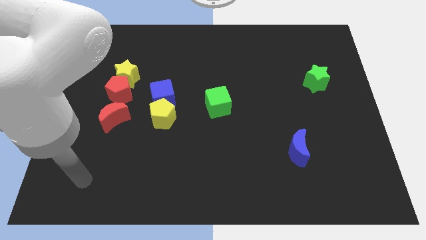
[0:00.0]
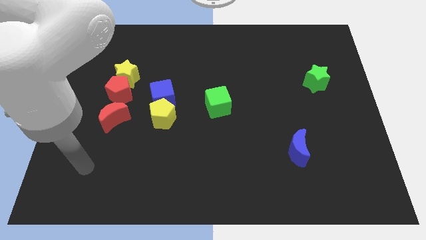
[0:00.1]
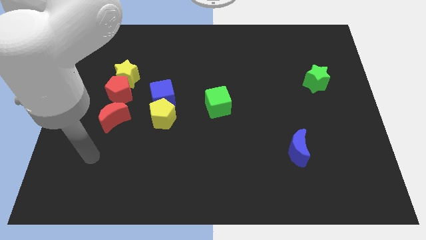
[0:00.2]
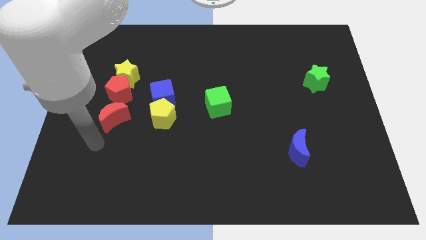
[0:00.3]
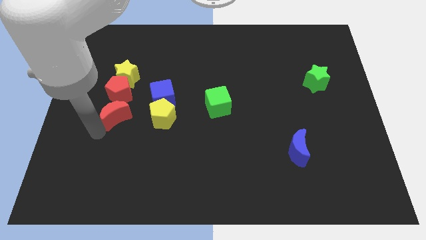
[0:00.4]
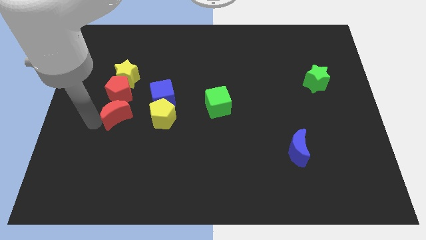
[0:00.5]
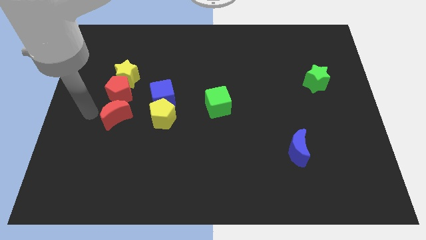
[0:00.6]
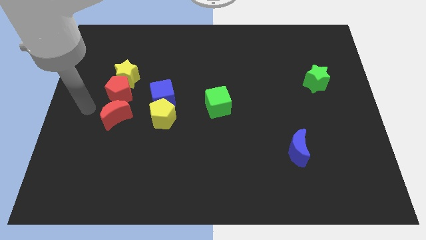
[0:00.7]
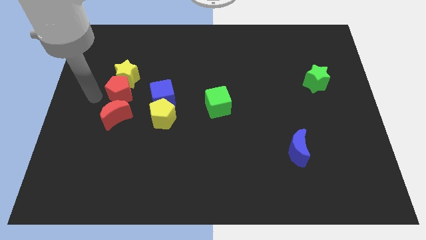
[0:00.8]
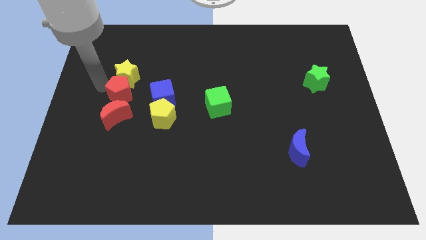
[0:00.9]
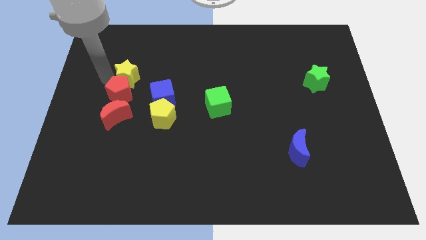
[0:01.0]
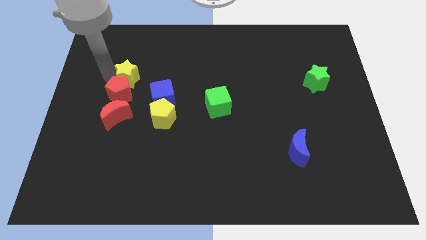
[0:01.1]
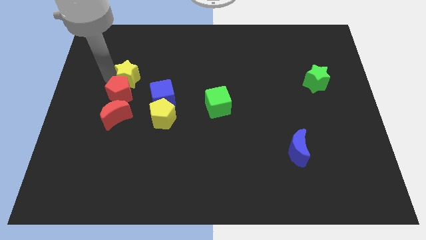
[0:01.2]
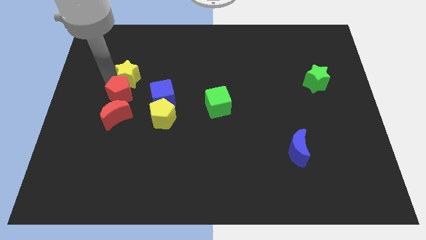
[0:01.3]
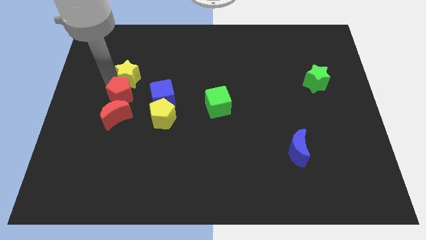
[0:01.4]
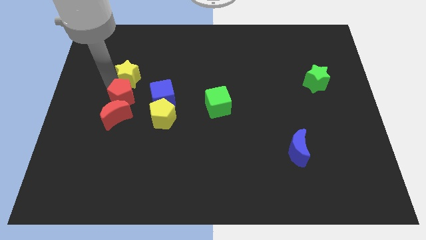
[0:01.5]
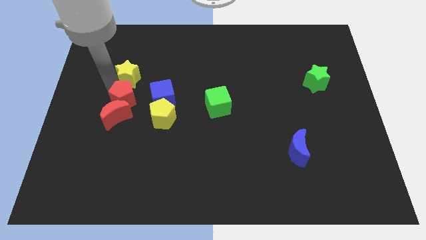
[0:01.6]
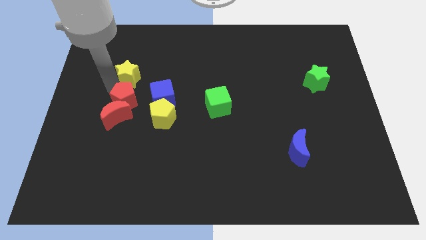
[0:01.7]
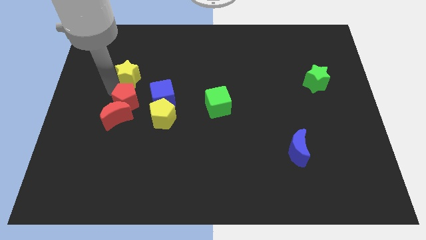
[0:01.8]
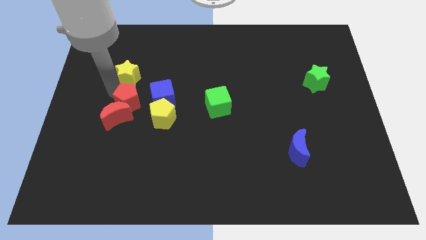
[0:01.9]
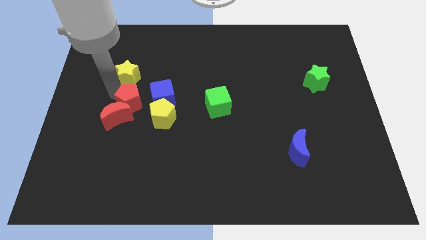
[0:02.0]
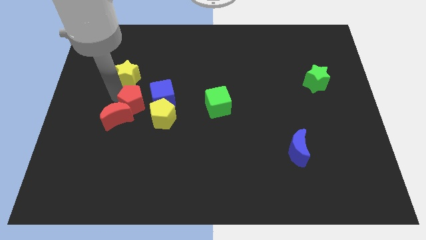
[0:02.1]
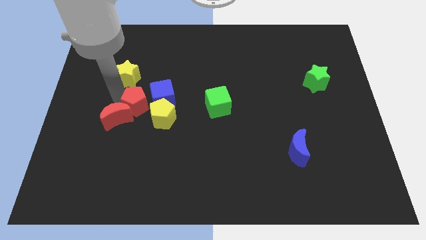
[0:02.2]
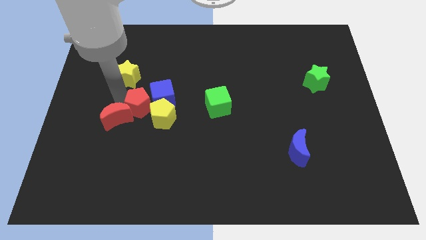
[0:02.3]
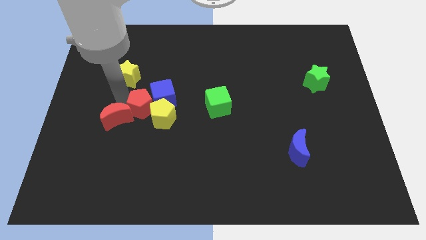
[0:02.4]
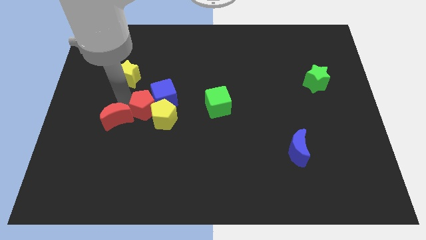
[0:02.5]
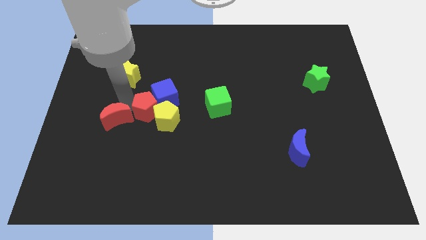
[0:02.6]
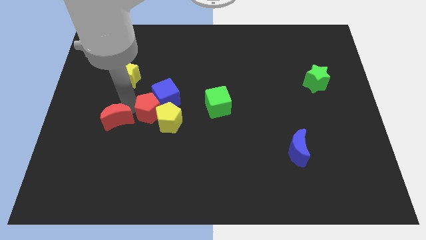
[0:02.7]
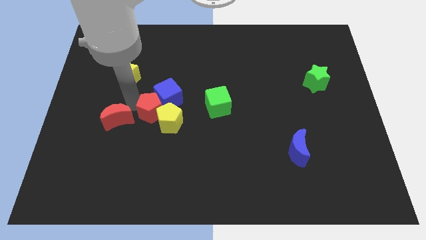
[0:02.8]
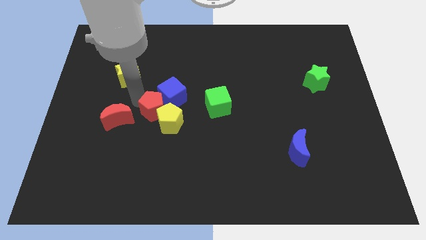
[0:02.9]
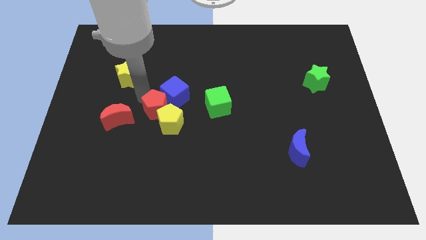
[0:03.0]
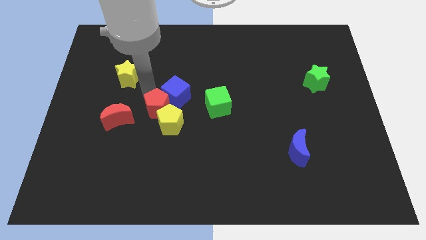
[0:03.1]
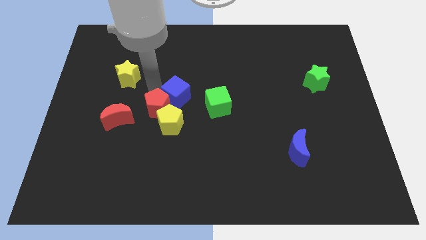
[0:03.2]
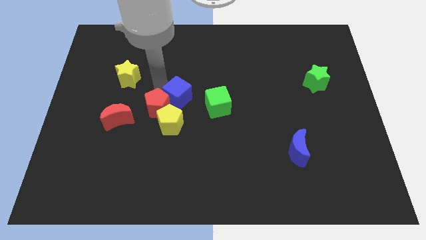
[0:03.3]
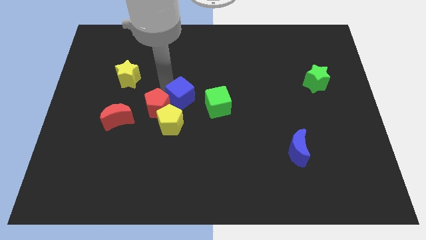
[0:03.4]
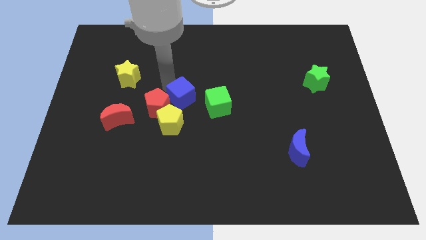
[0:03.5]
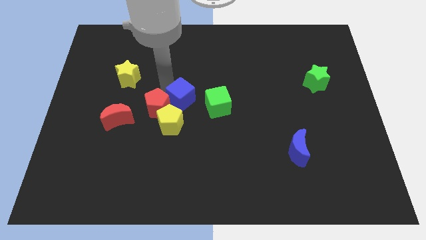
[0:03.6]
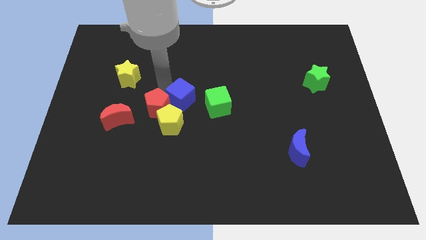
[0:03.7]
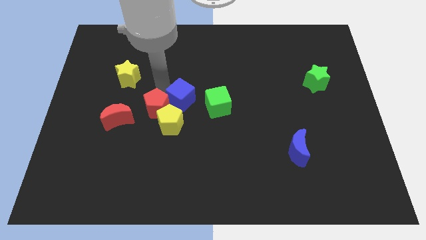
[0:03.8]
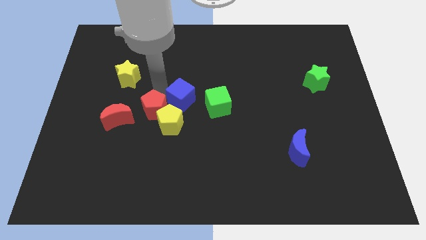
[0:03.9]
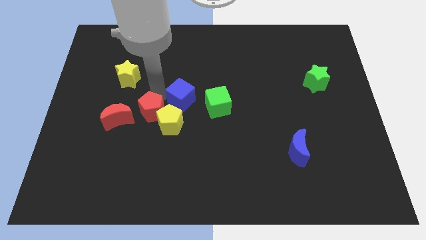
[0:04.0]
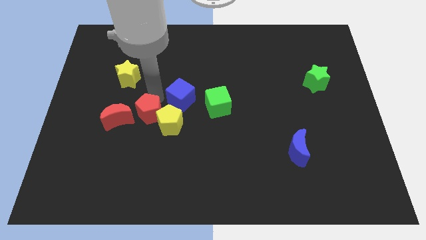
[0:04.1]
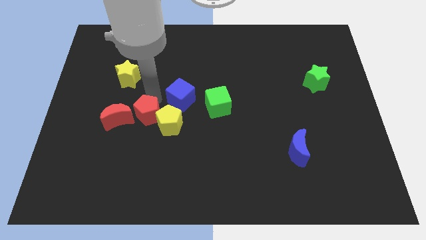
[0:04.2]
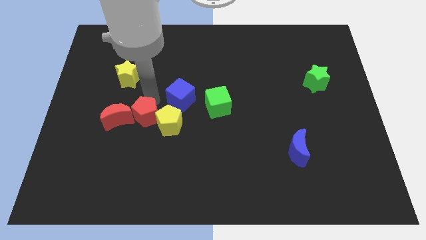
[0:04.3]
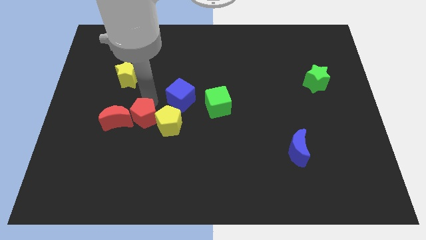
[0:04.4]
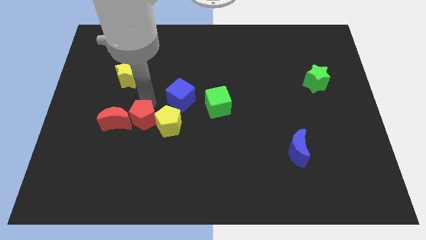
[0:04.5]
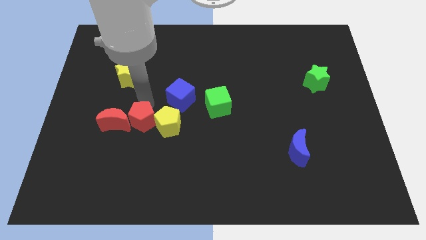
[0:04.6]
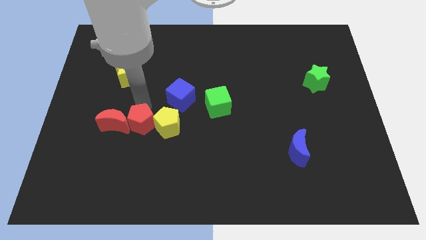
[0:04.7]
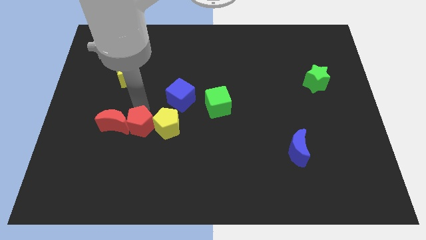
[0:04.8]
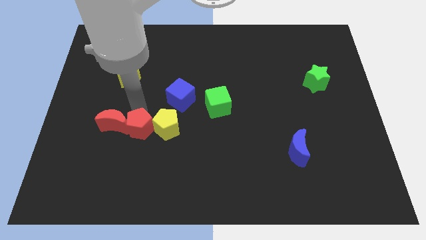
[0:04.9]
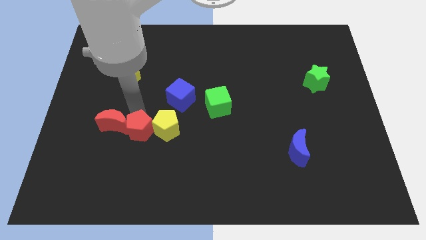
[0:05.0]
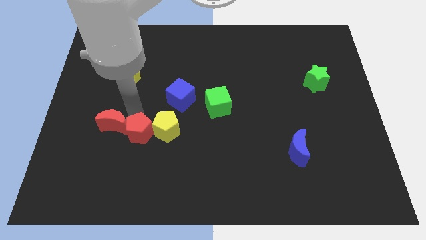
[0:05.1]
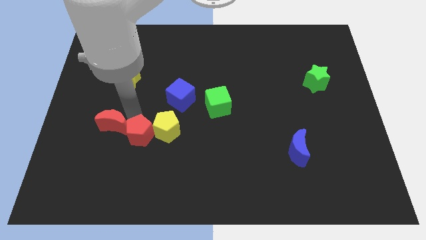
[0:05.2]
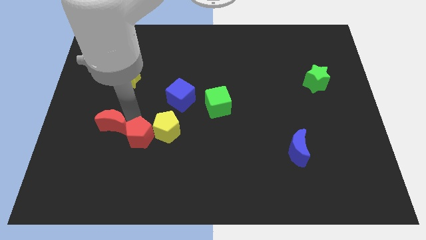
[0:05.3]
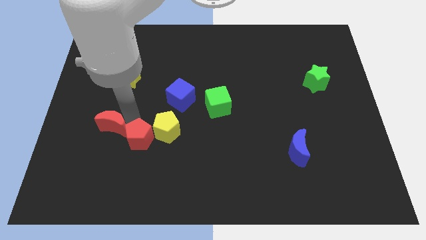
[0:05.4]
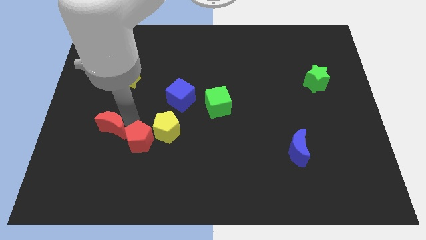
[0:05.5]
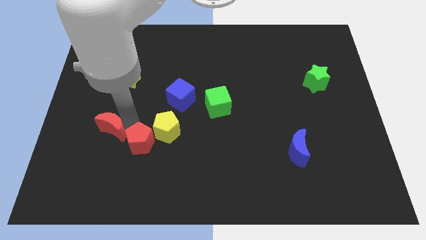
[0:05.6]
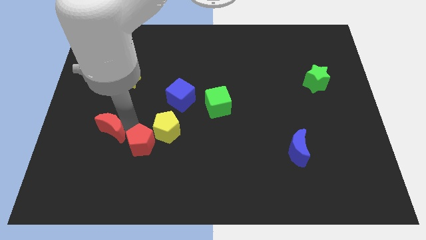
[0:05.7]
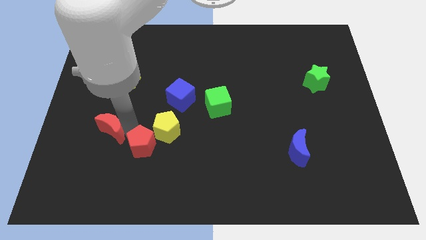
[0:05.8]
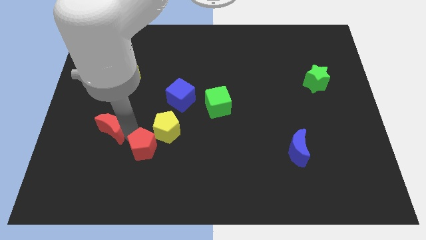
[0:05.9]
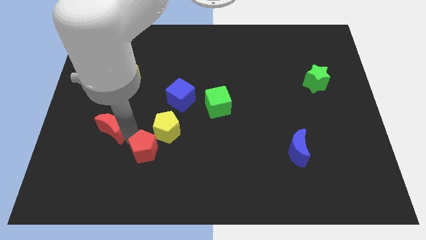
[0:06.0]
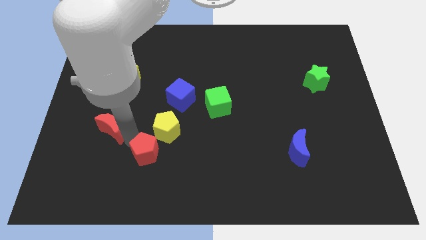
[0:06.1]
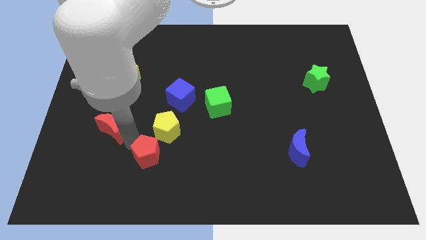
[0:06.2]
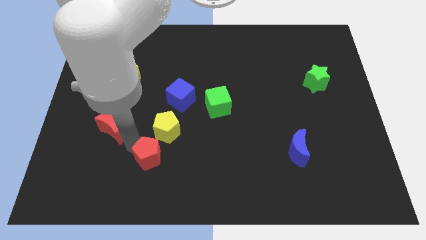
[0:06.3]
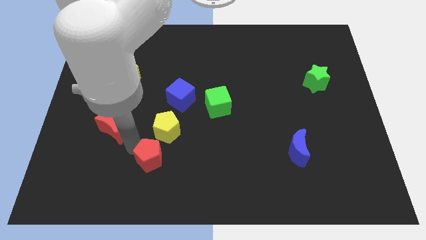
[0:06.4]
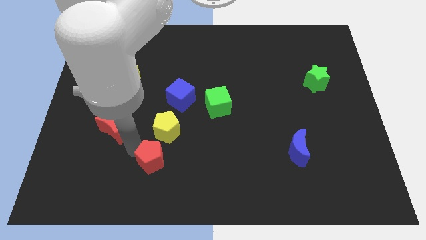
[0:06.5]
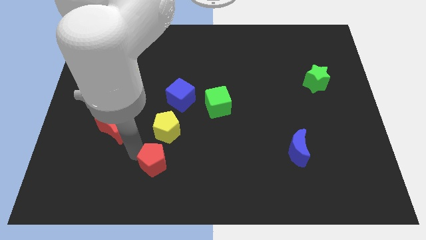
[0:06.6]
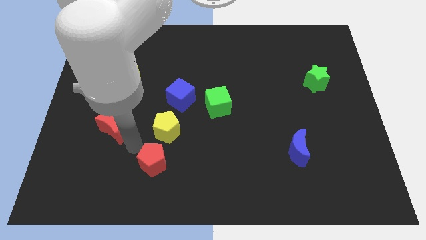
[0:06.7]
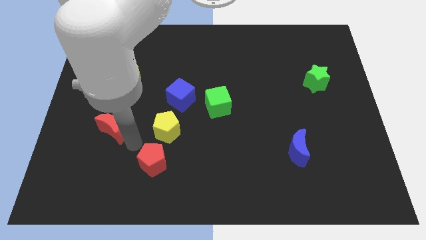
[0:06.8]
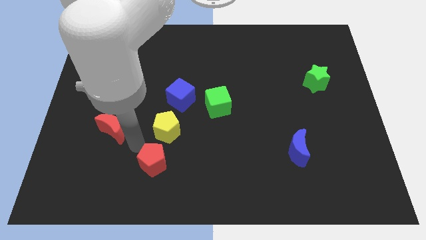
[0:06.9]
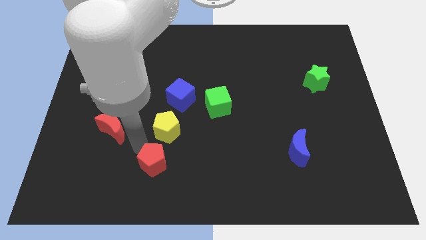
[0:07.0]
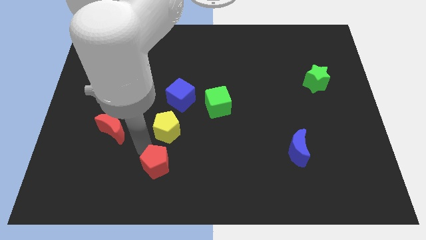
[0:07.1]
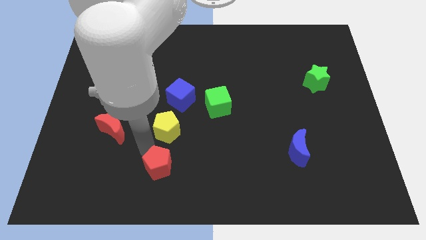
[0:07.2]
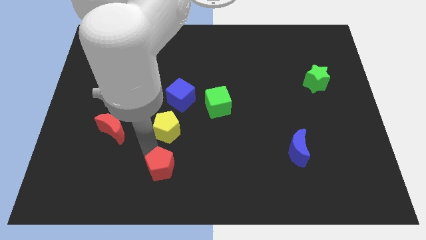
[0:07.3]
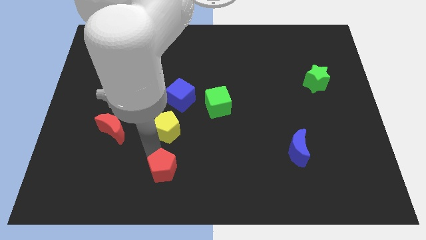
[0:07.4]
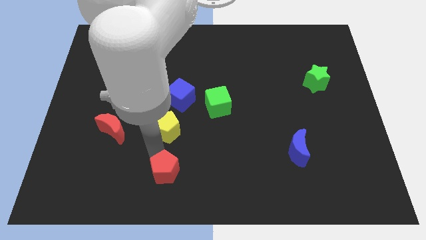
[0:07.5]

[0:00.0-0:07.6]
put the red pentagon to the bottom side
